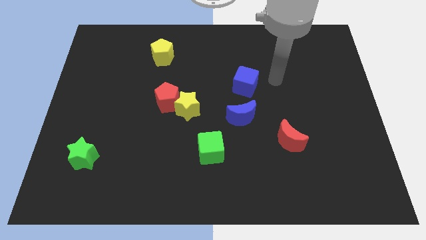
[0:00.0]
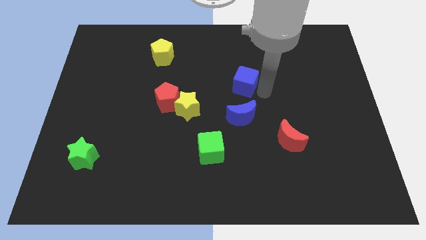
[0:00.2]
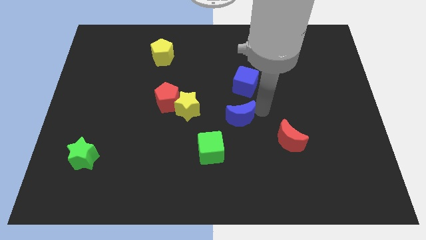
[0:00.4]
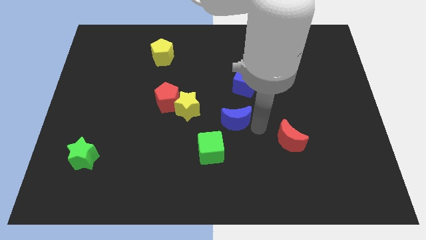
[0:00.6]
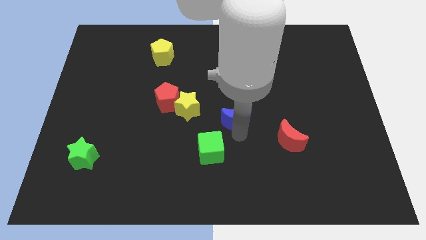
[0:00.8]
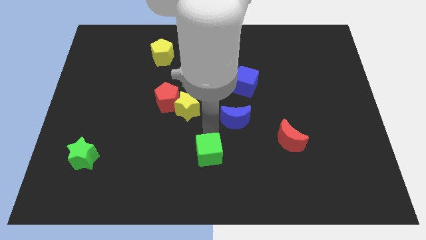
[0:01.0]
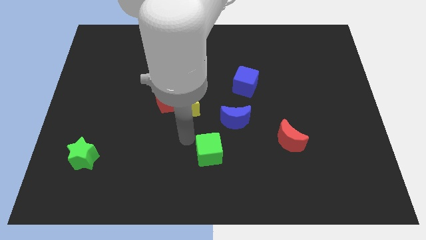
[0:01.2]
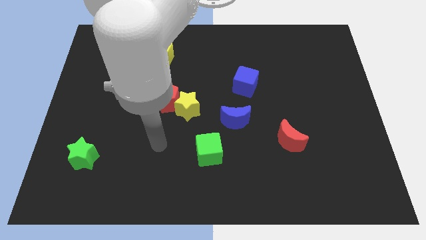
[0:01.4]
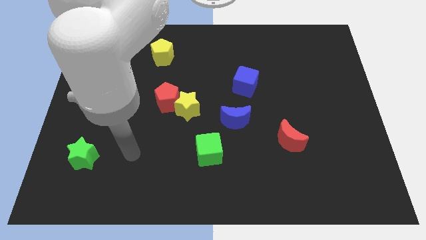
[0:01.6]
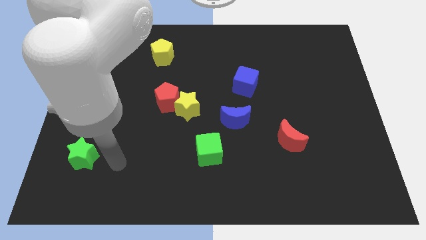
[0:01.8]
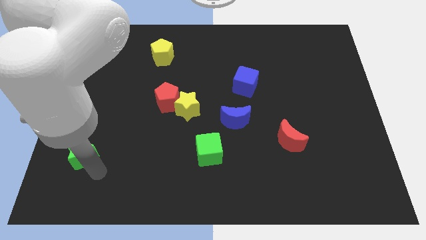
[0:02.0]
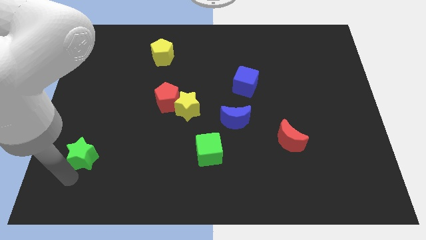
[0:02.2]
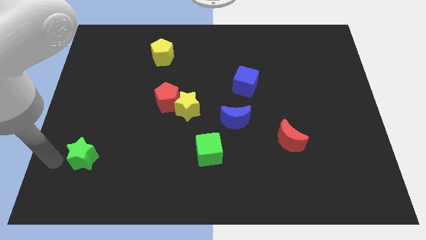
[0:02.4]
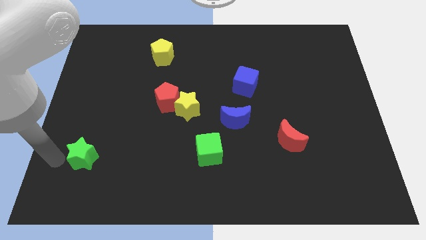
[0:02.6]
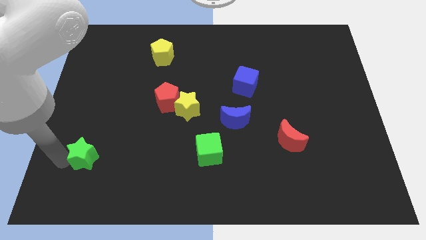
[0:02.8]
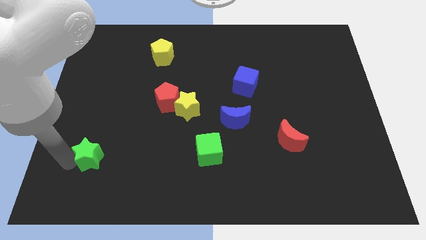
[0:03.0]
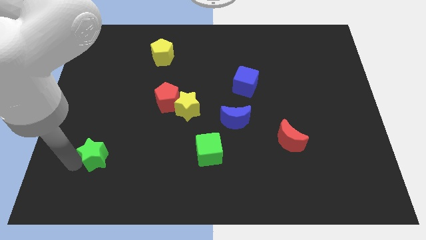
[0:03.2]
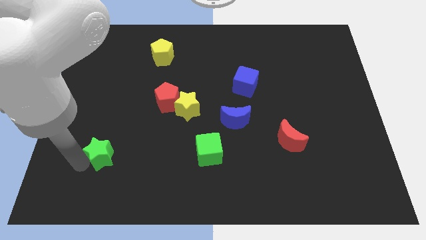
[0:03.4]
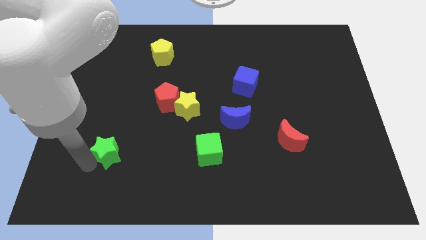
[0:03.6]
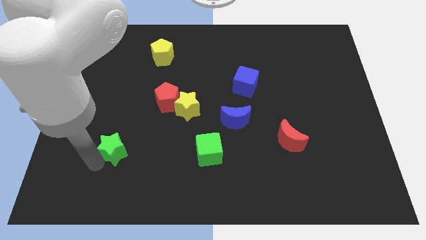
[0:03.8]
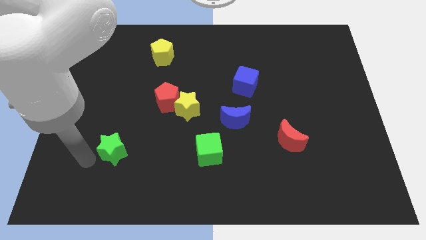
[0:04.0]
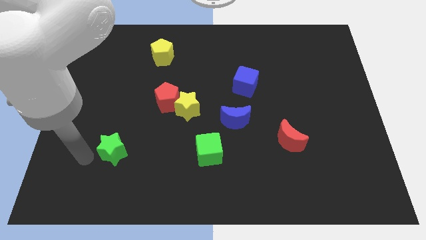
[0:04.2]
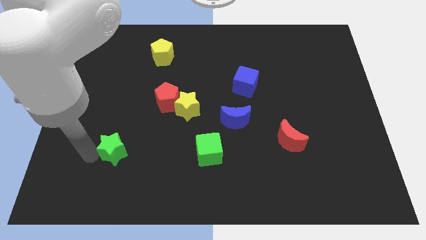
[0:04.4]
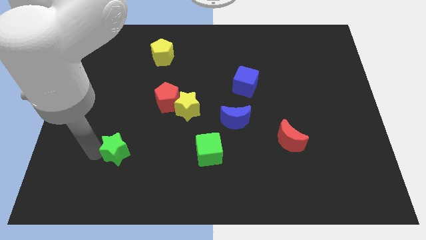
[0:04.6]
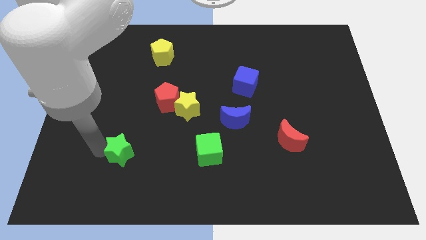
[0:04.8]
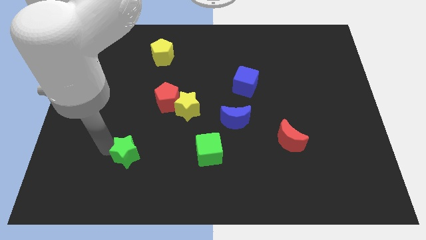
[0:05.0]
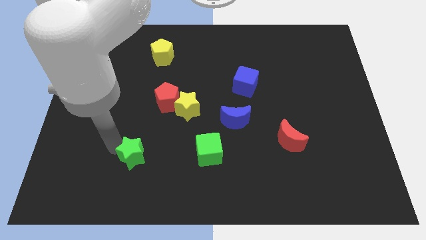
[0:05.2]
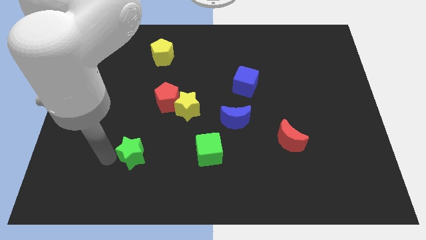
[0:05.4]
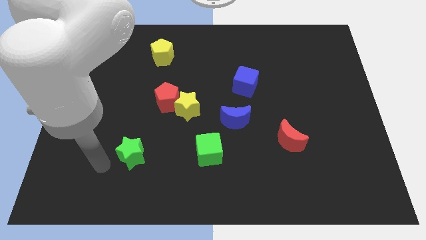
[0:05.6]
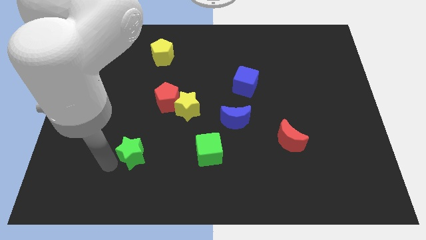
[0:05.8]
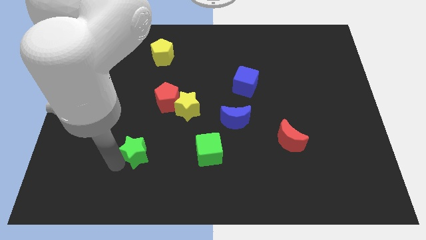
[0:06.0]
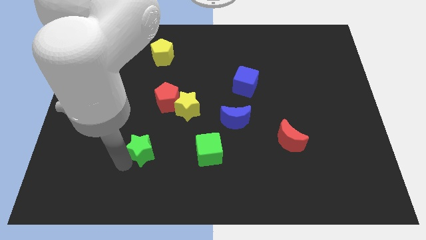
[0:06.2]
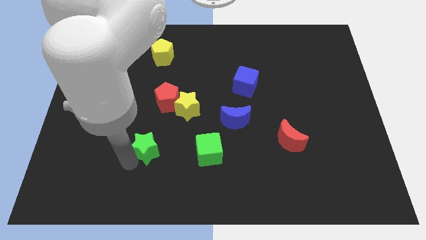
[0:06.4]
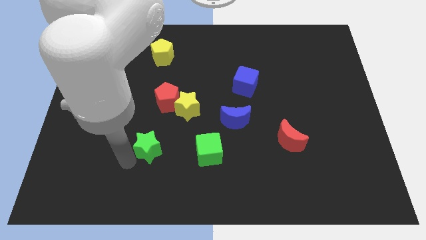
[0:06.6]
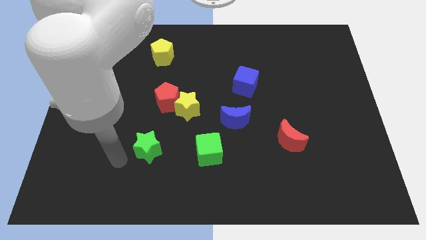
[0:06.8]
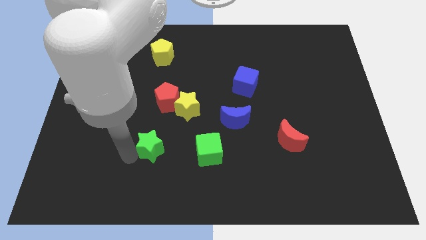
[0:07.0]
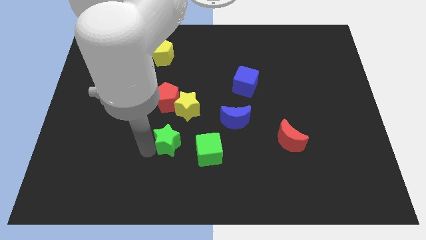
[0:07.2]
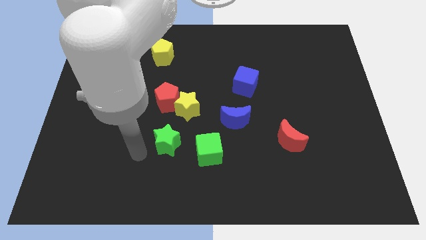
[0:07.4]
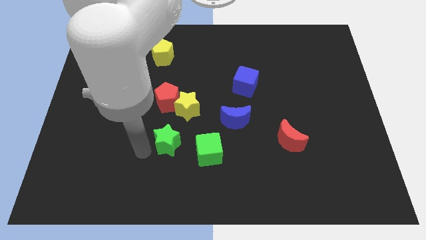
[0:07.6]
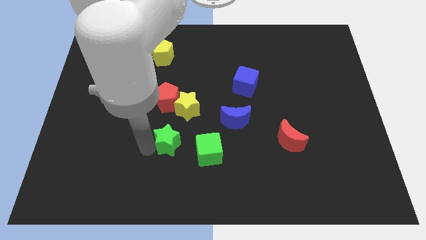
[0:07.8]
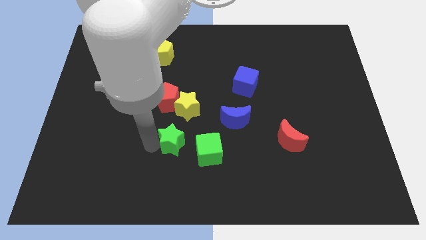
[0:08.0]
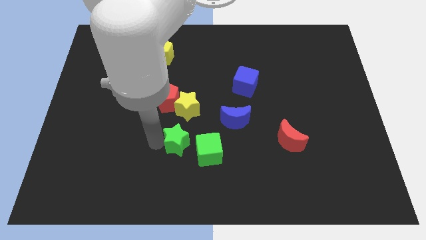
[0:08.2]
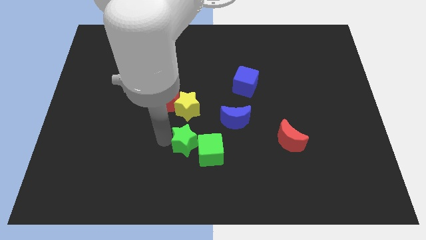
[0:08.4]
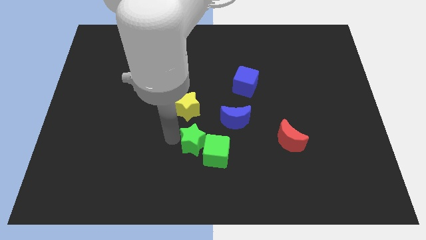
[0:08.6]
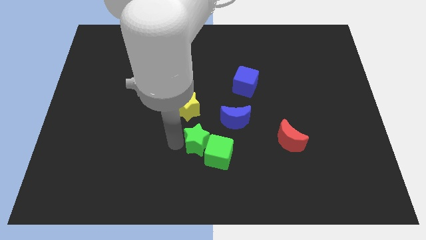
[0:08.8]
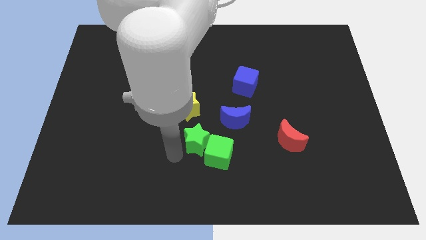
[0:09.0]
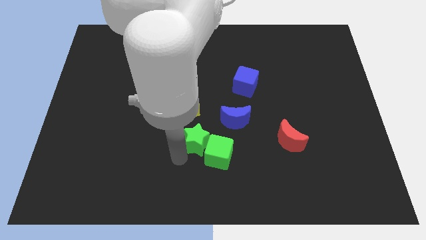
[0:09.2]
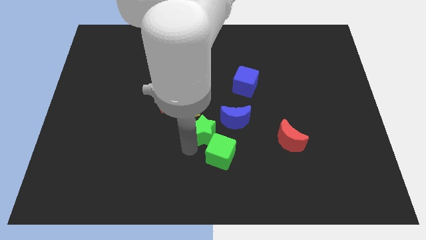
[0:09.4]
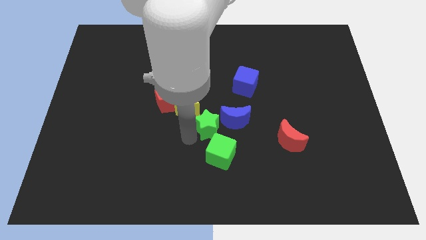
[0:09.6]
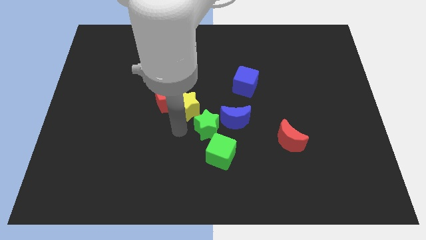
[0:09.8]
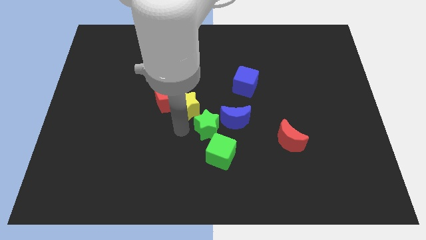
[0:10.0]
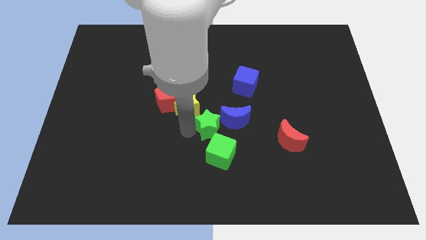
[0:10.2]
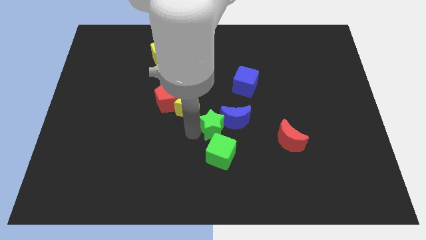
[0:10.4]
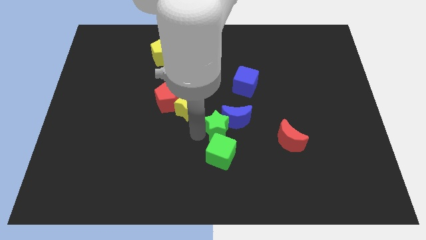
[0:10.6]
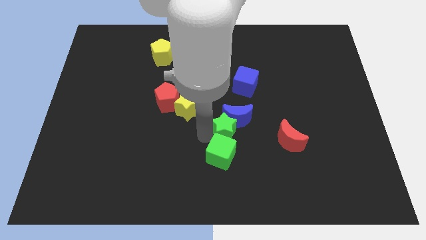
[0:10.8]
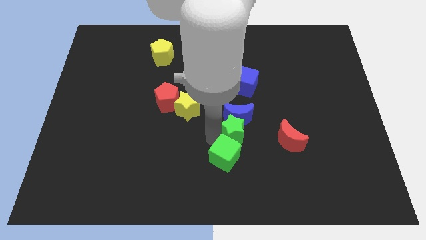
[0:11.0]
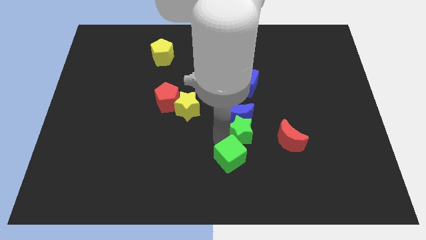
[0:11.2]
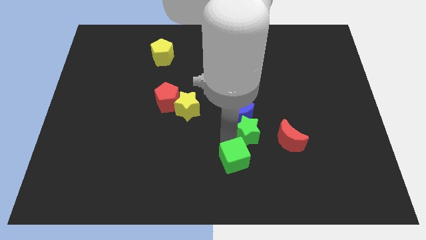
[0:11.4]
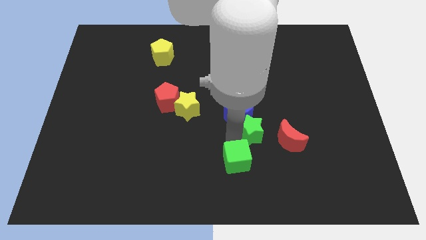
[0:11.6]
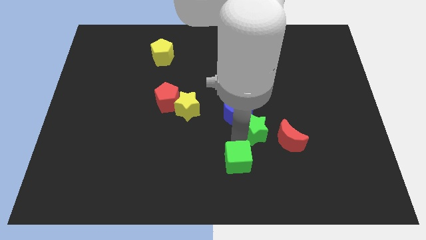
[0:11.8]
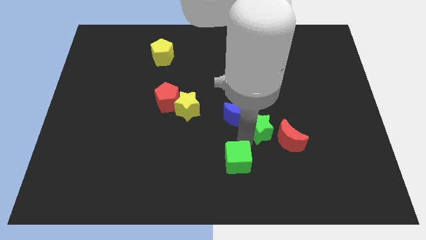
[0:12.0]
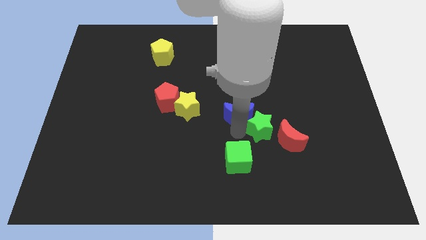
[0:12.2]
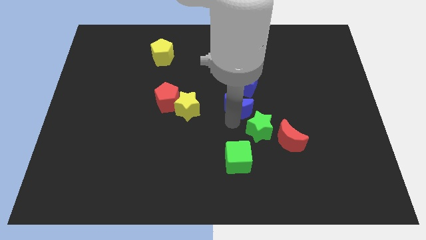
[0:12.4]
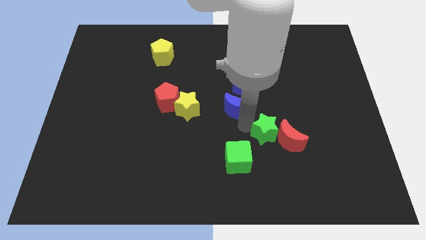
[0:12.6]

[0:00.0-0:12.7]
put the green star next to the red moon

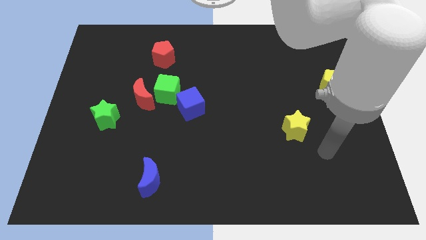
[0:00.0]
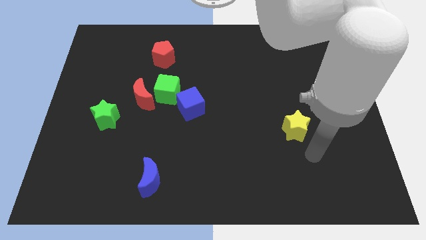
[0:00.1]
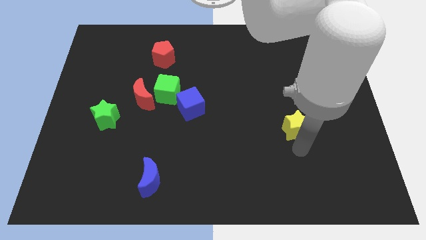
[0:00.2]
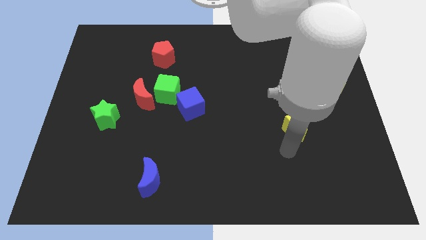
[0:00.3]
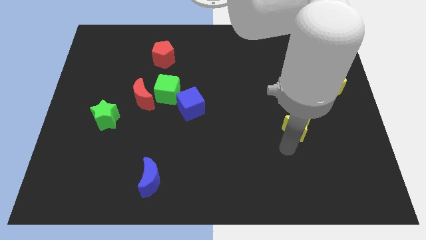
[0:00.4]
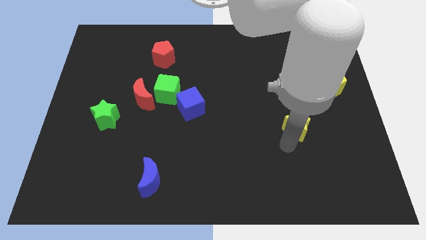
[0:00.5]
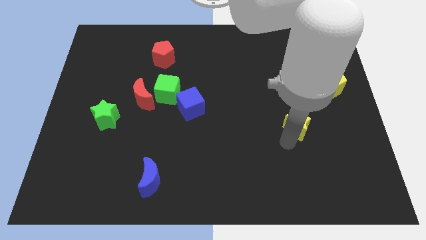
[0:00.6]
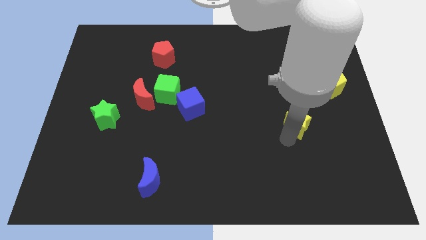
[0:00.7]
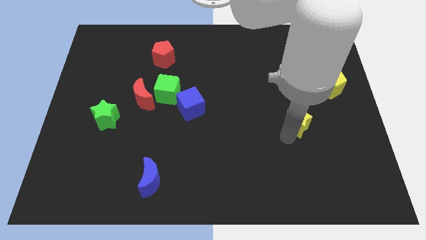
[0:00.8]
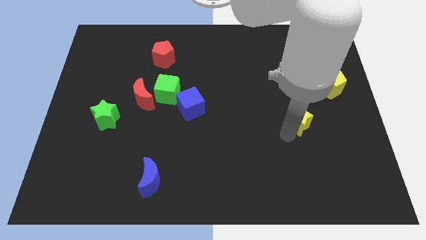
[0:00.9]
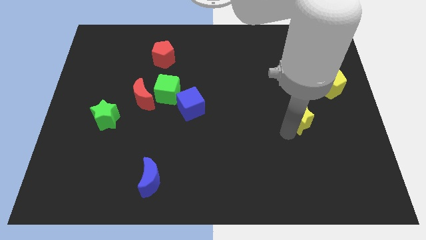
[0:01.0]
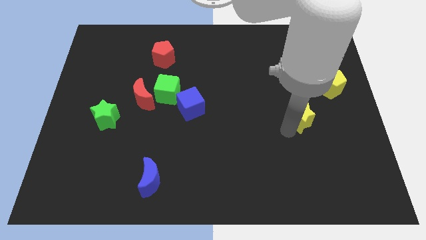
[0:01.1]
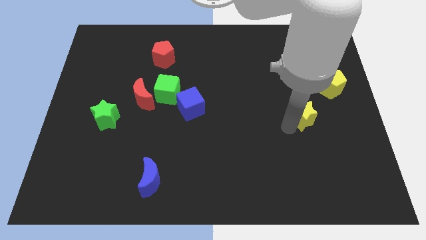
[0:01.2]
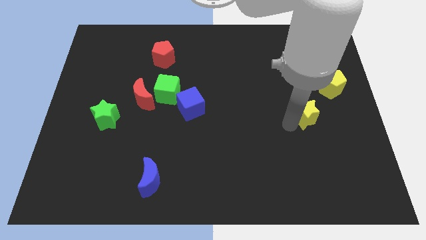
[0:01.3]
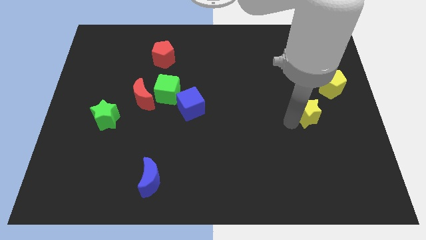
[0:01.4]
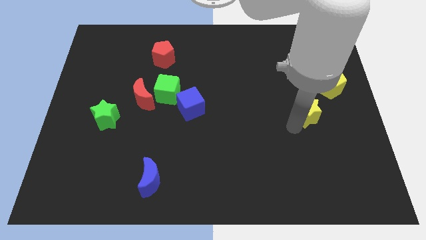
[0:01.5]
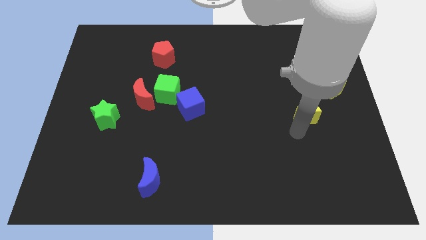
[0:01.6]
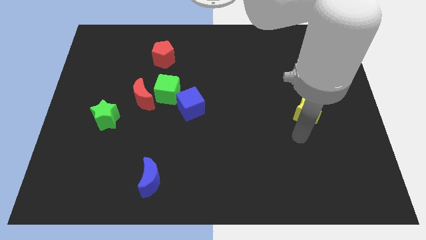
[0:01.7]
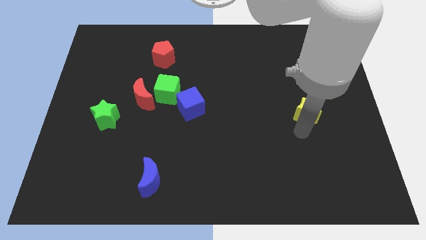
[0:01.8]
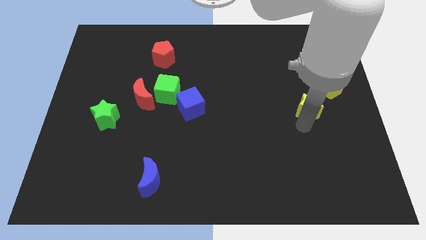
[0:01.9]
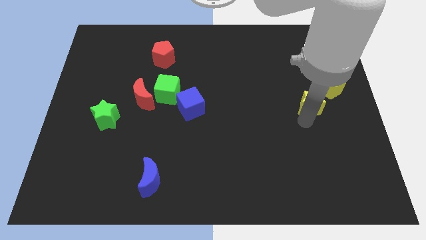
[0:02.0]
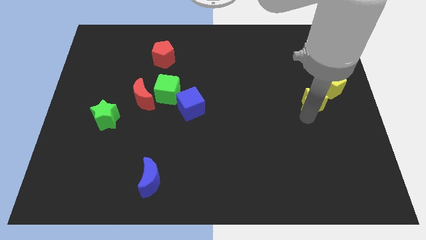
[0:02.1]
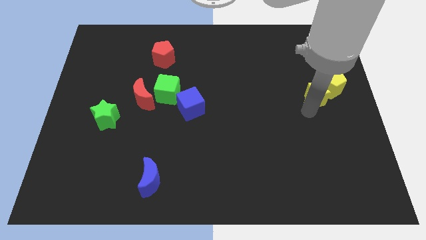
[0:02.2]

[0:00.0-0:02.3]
put the yellow star next to the yellow pentagon
